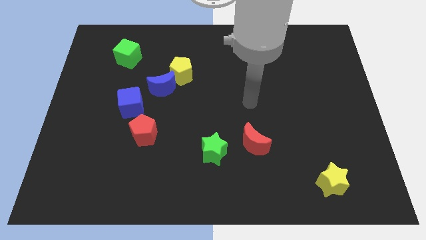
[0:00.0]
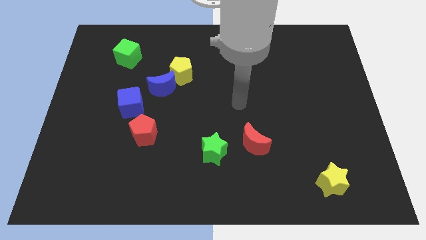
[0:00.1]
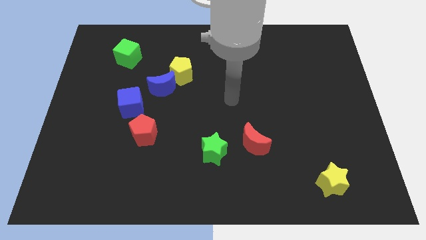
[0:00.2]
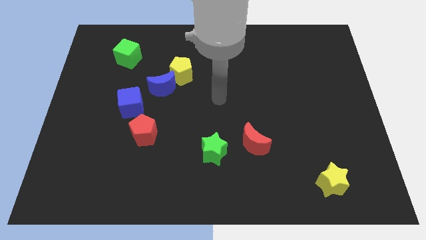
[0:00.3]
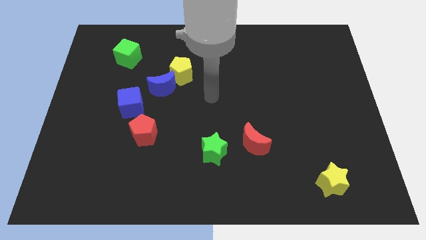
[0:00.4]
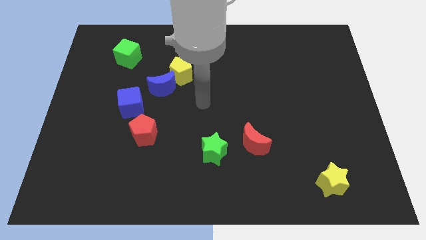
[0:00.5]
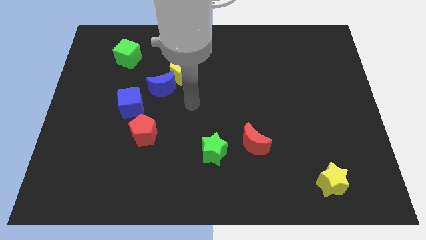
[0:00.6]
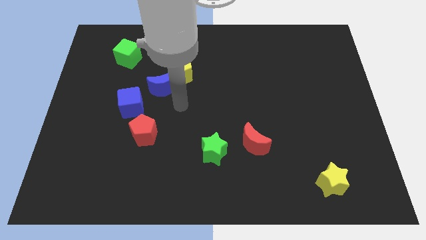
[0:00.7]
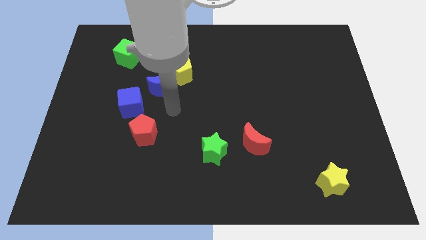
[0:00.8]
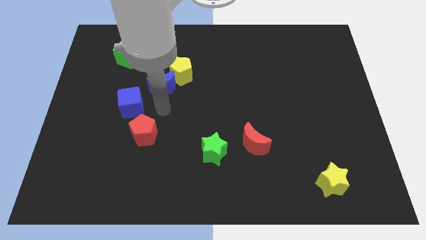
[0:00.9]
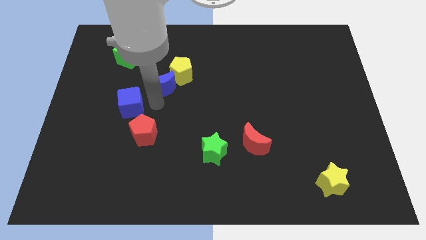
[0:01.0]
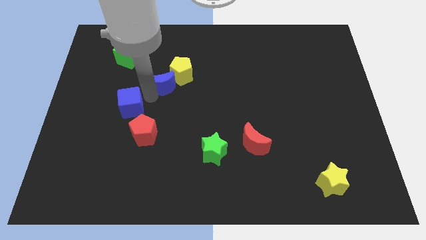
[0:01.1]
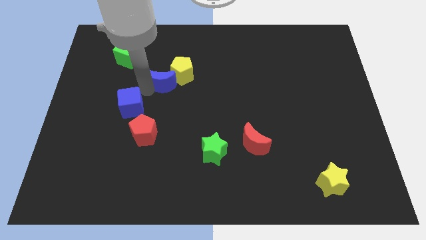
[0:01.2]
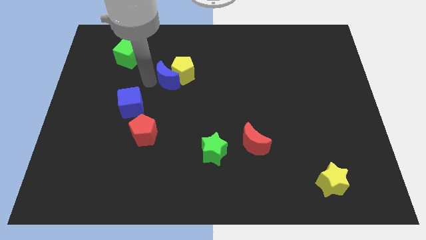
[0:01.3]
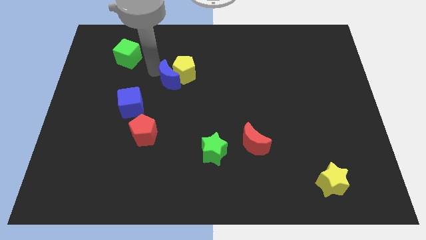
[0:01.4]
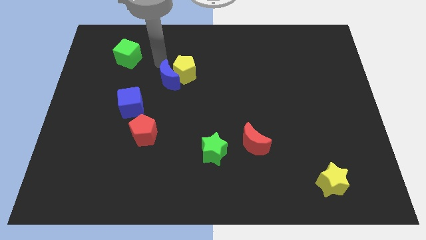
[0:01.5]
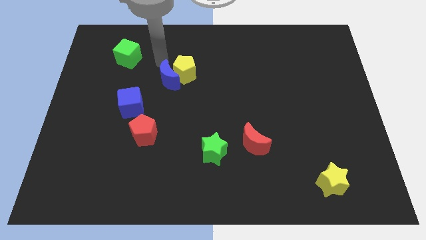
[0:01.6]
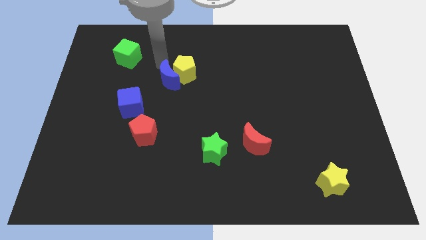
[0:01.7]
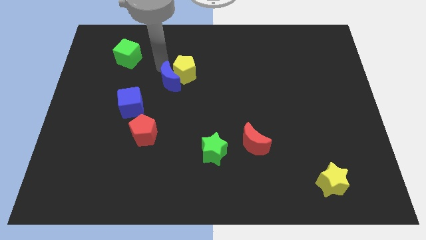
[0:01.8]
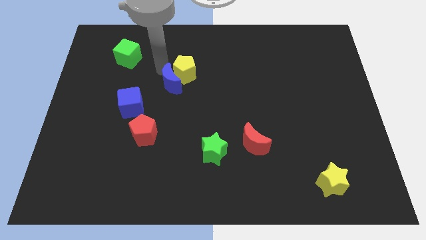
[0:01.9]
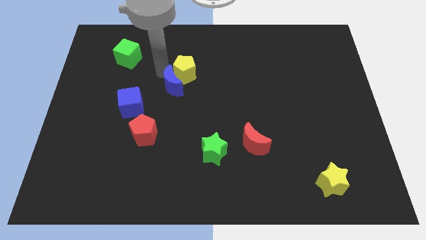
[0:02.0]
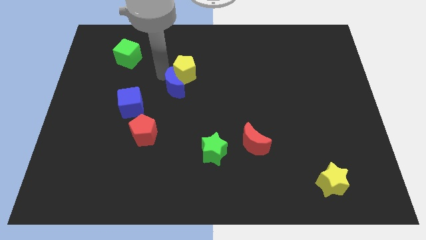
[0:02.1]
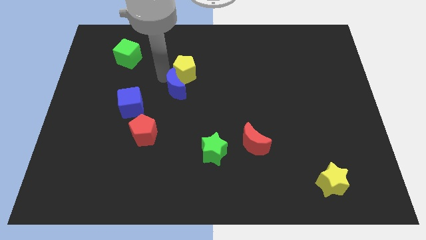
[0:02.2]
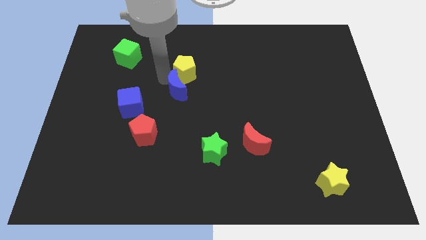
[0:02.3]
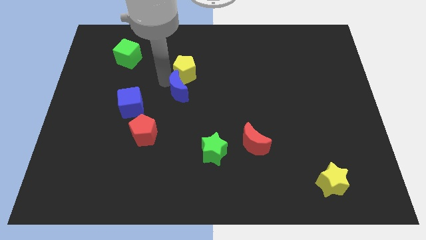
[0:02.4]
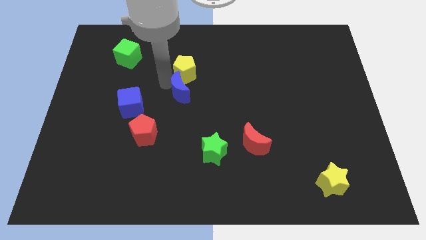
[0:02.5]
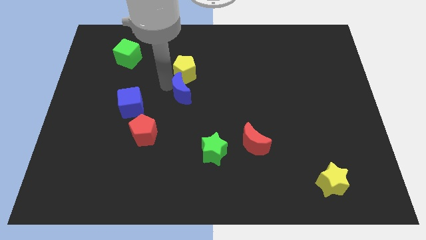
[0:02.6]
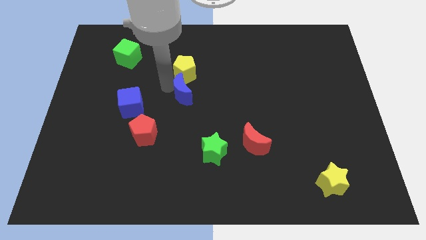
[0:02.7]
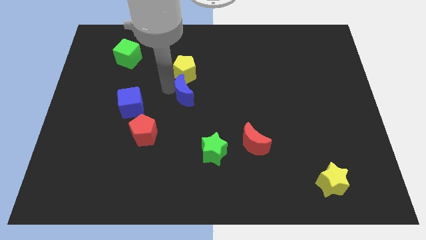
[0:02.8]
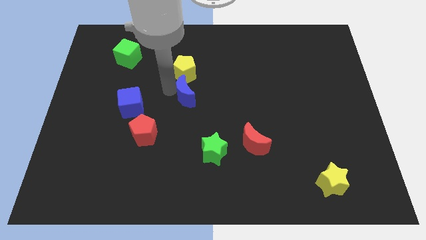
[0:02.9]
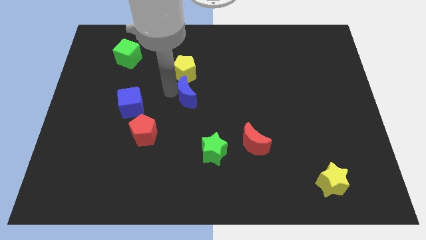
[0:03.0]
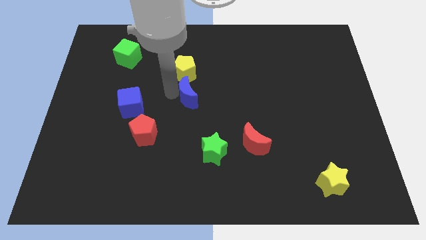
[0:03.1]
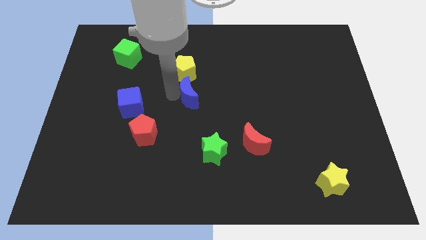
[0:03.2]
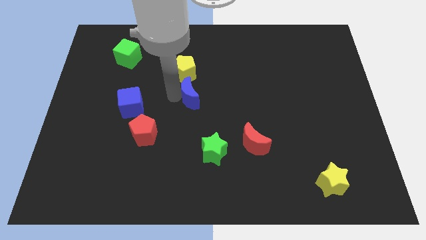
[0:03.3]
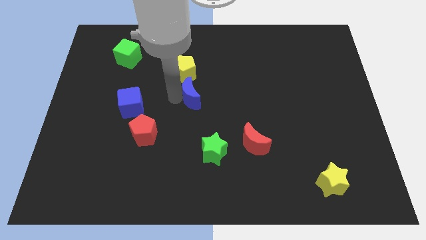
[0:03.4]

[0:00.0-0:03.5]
slide the blue moon downwards and then to the right a little

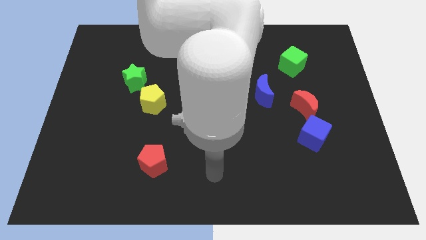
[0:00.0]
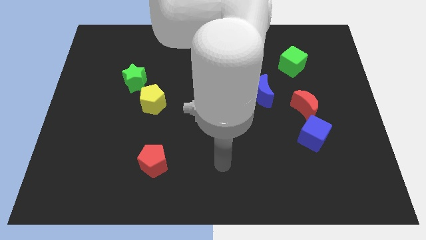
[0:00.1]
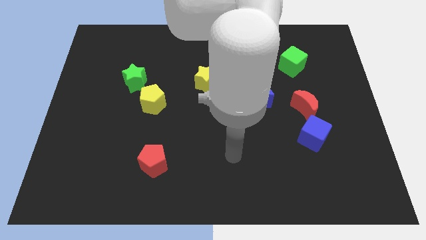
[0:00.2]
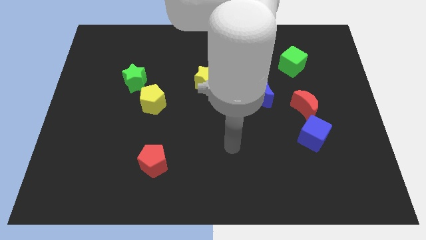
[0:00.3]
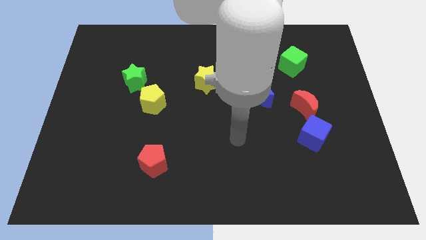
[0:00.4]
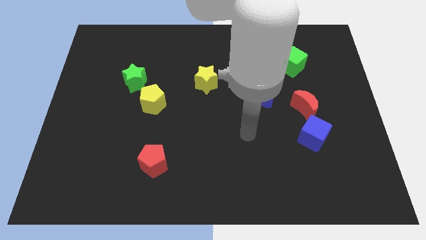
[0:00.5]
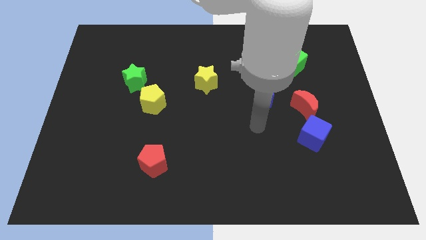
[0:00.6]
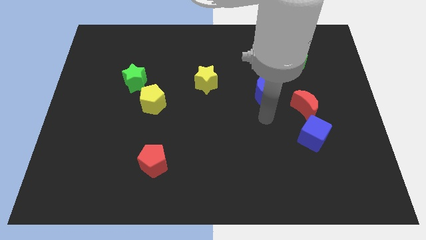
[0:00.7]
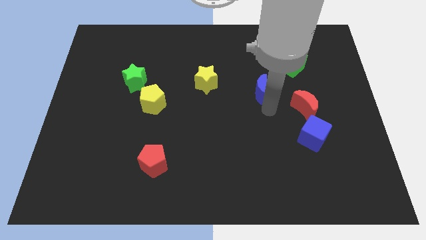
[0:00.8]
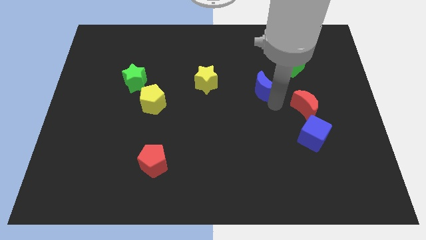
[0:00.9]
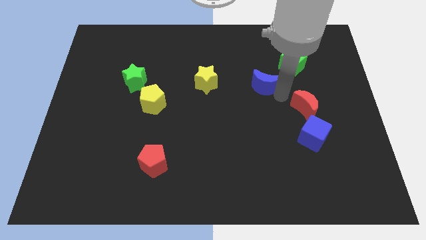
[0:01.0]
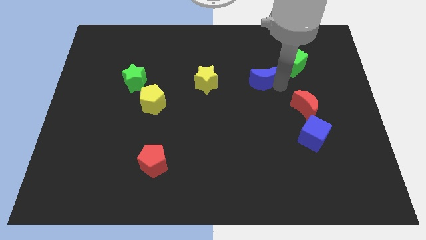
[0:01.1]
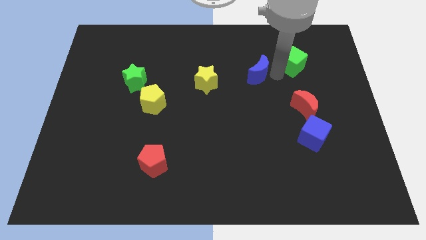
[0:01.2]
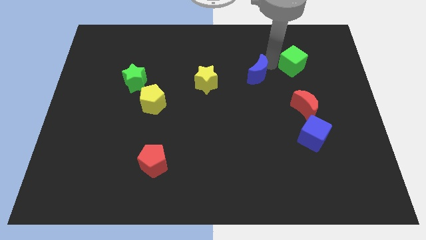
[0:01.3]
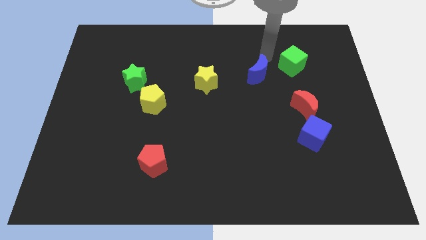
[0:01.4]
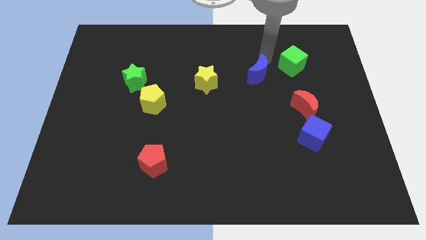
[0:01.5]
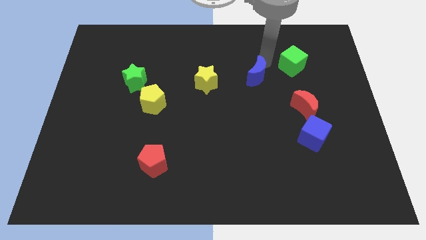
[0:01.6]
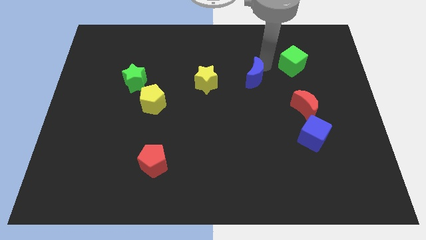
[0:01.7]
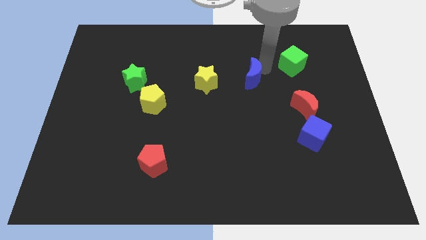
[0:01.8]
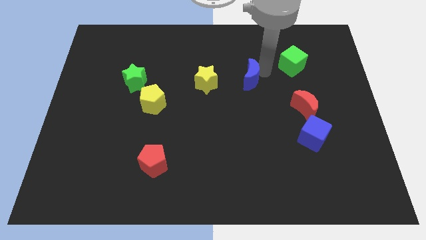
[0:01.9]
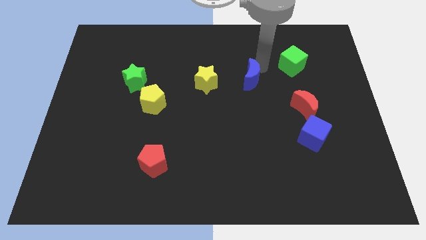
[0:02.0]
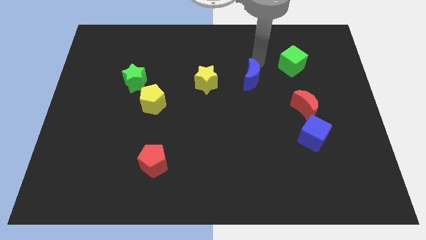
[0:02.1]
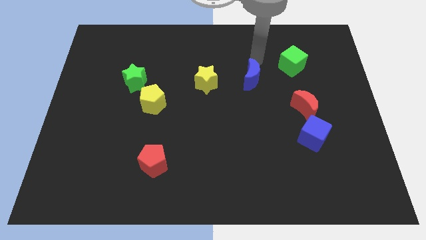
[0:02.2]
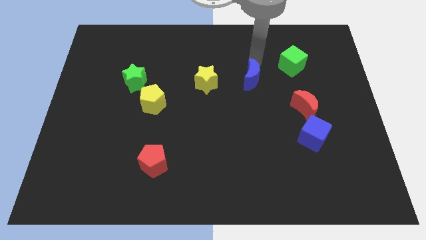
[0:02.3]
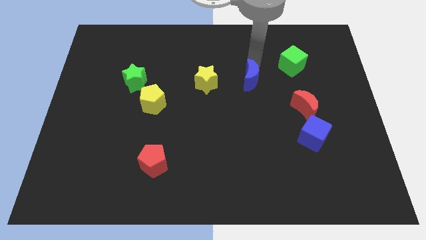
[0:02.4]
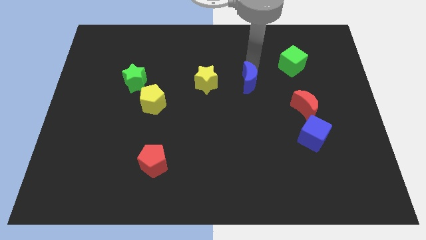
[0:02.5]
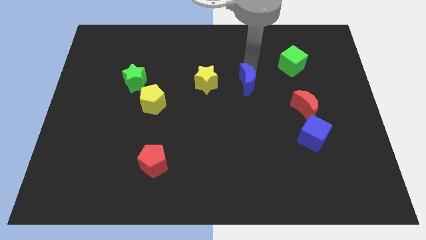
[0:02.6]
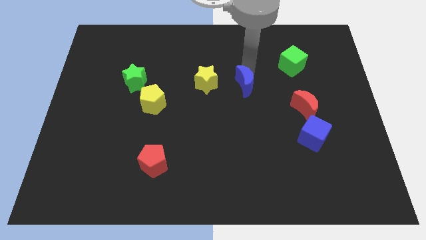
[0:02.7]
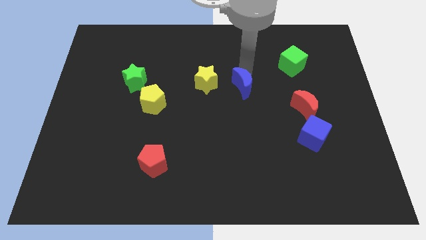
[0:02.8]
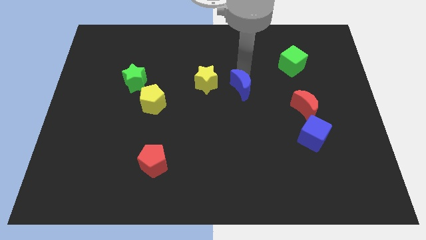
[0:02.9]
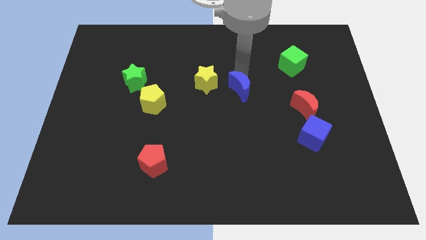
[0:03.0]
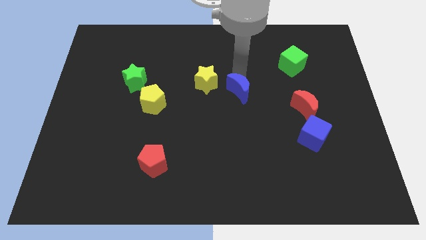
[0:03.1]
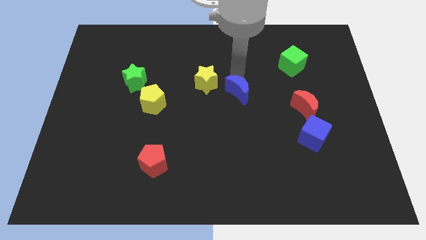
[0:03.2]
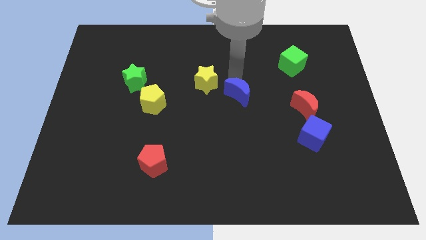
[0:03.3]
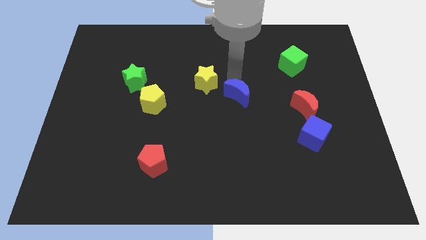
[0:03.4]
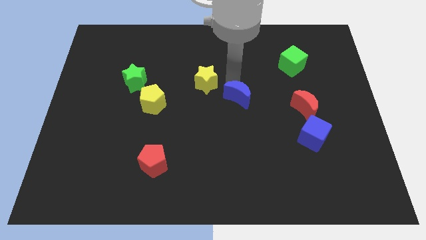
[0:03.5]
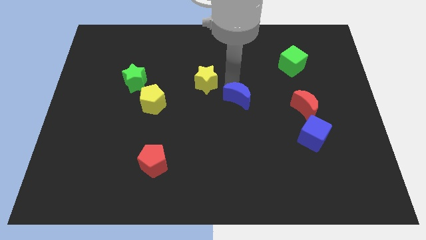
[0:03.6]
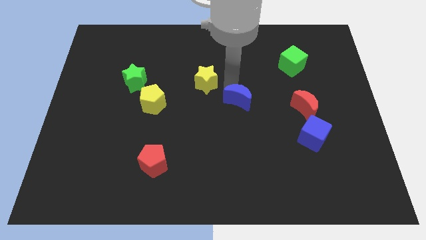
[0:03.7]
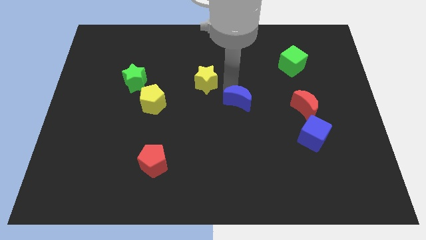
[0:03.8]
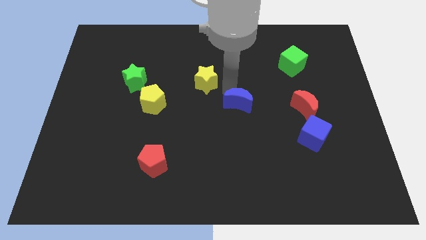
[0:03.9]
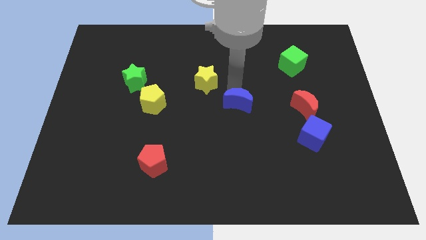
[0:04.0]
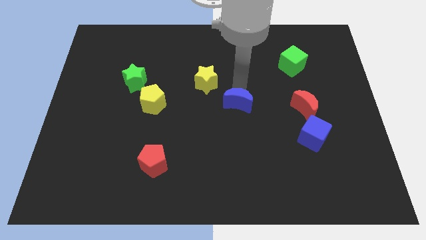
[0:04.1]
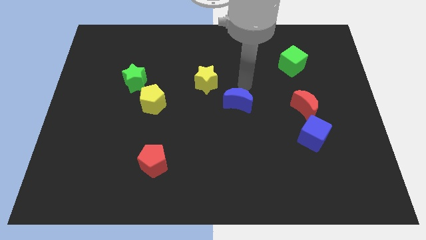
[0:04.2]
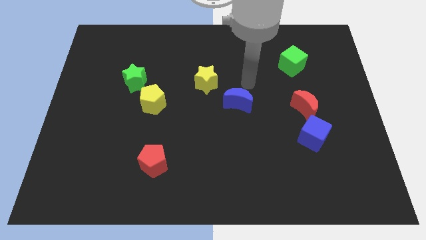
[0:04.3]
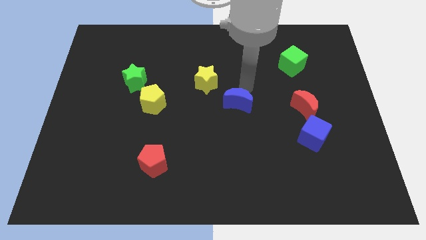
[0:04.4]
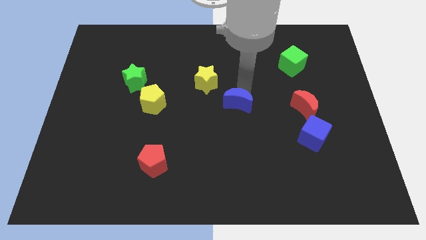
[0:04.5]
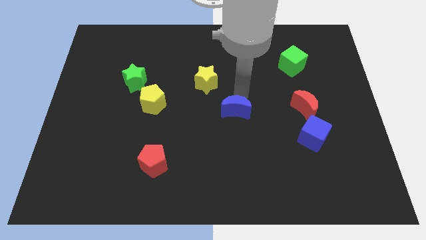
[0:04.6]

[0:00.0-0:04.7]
move the blue moon slightly down and to the left diagonally

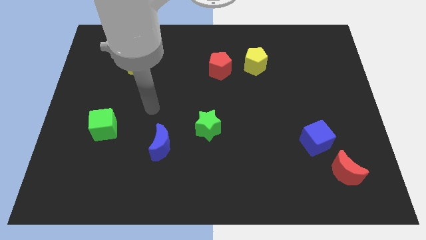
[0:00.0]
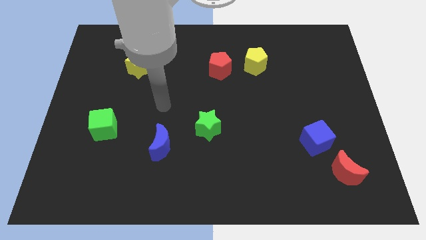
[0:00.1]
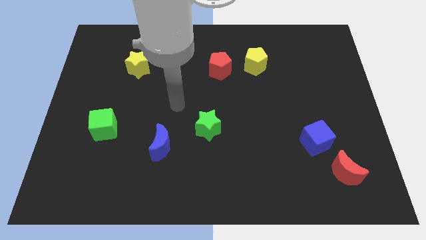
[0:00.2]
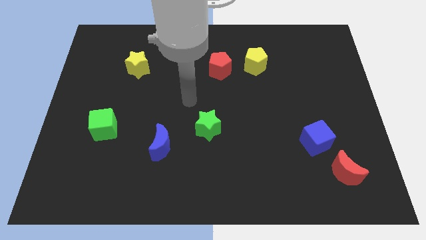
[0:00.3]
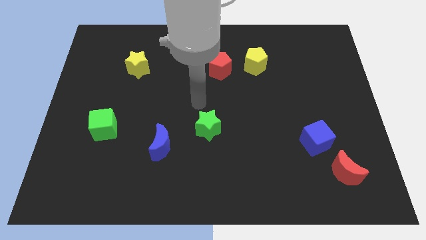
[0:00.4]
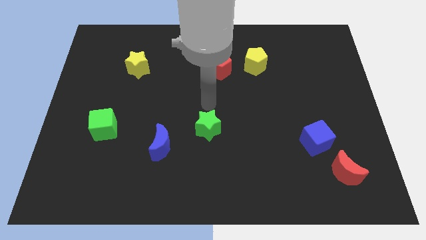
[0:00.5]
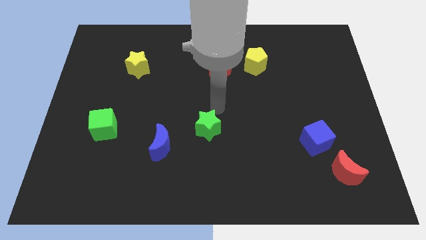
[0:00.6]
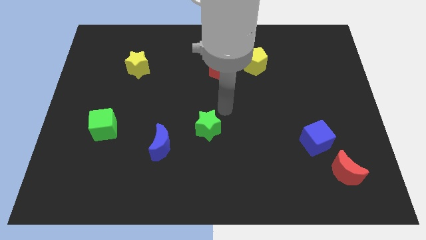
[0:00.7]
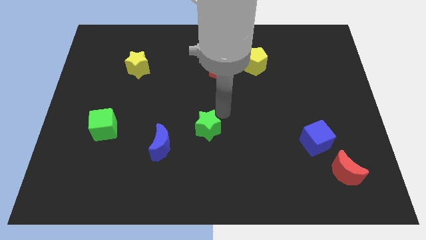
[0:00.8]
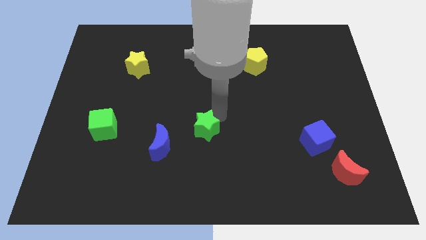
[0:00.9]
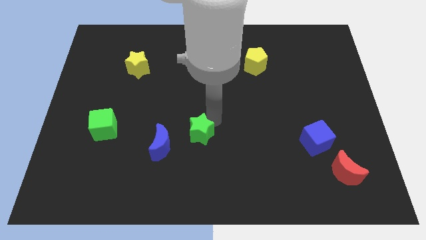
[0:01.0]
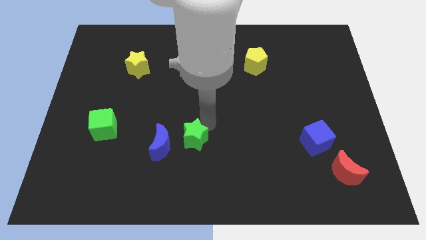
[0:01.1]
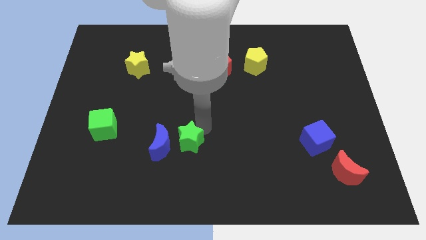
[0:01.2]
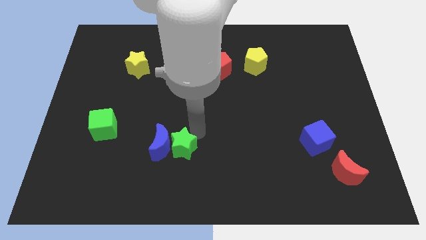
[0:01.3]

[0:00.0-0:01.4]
slightly slide the green star downwards and to the left
